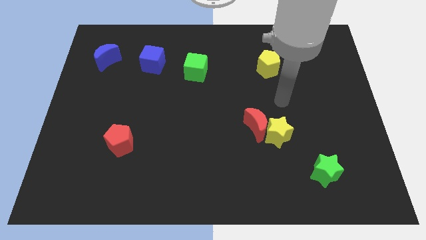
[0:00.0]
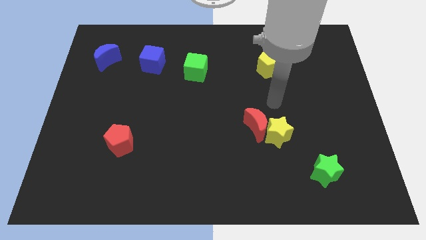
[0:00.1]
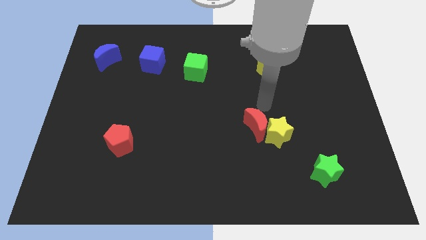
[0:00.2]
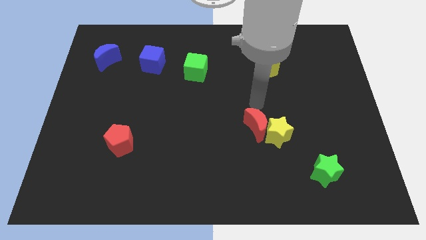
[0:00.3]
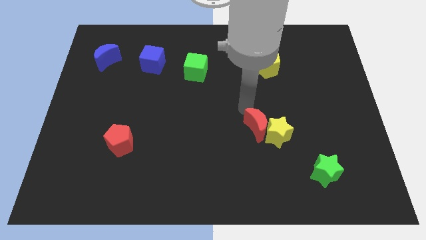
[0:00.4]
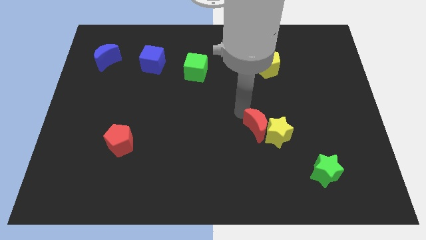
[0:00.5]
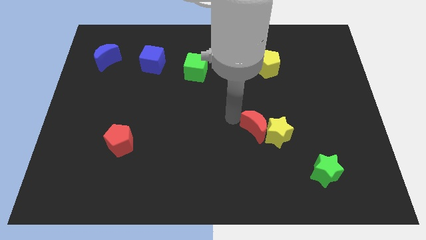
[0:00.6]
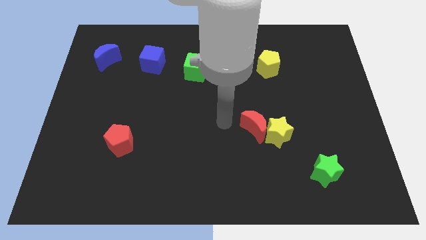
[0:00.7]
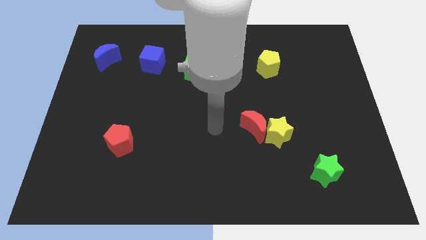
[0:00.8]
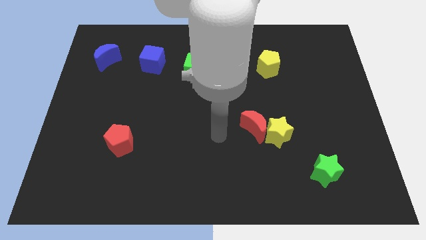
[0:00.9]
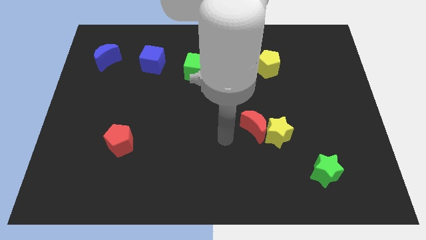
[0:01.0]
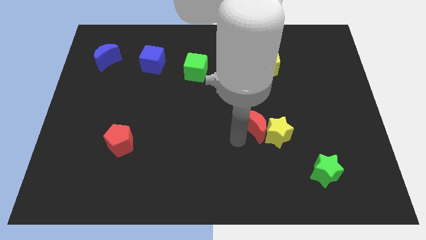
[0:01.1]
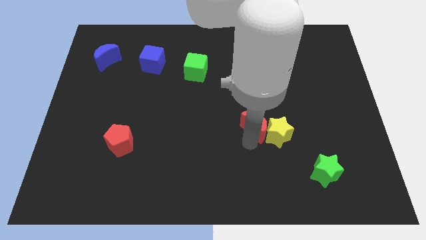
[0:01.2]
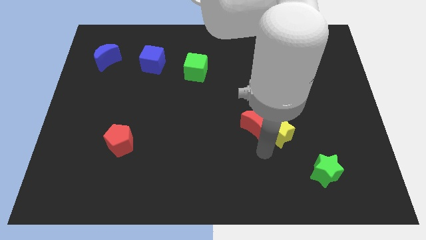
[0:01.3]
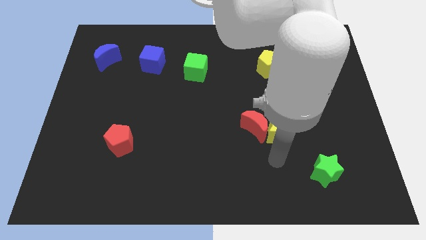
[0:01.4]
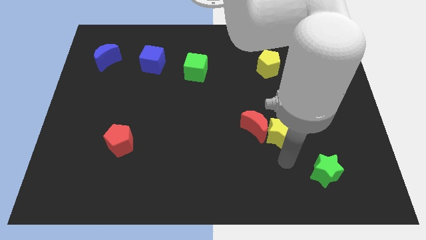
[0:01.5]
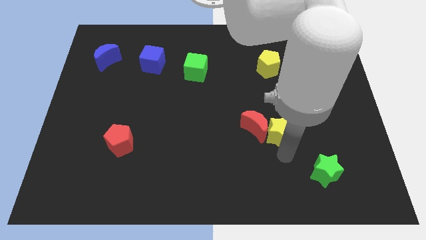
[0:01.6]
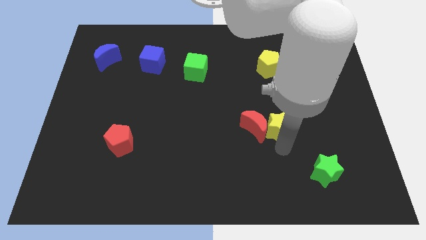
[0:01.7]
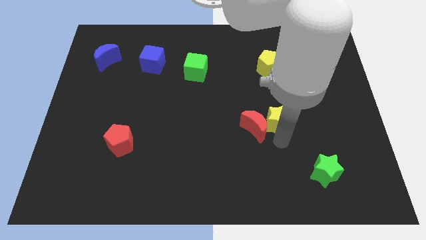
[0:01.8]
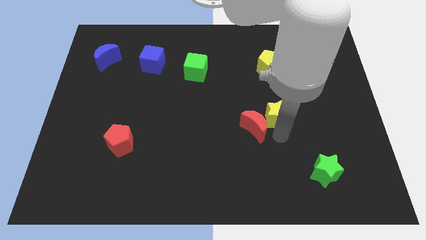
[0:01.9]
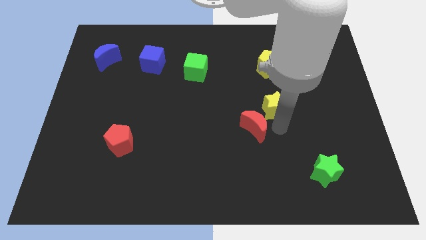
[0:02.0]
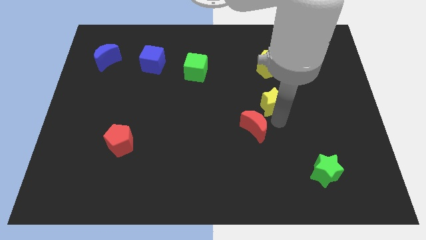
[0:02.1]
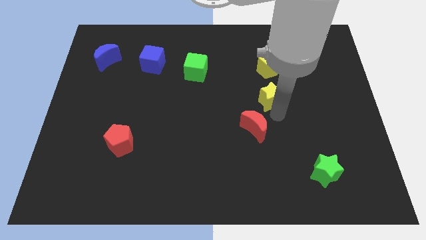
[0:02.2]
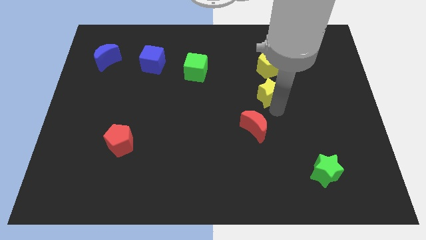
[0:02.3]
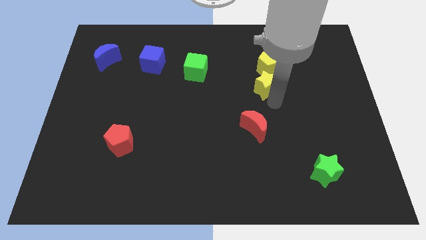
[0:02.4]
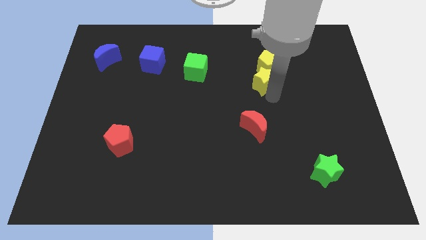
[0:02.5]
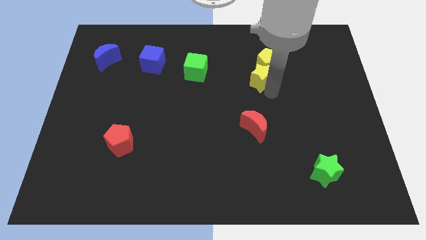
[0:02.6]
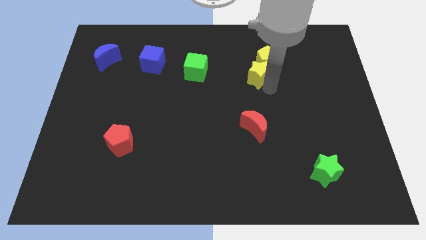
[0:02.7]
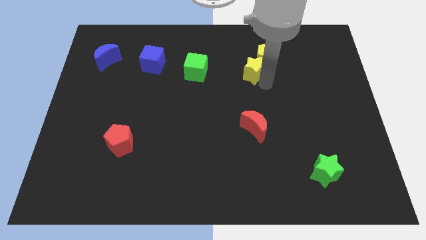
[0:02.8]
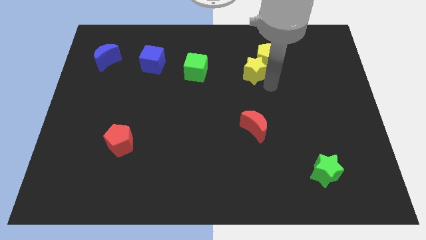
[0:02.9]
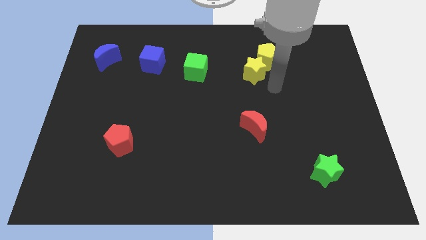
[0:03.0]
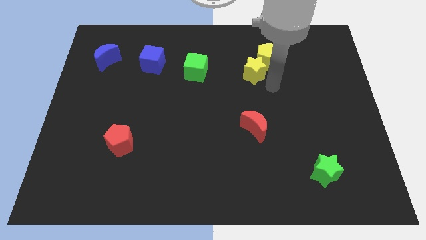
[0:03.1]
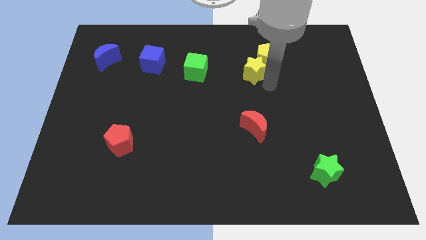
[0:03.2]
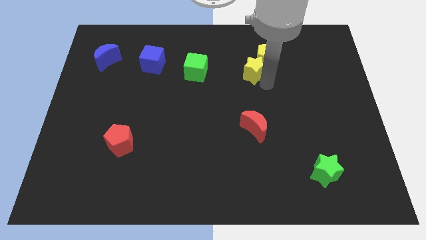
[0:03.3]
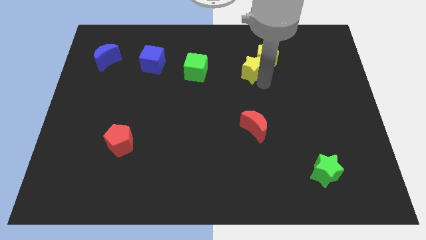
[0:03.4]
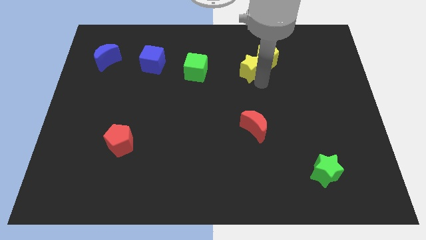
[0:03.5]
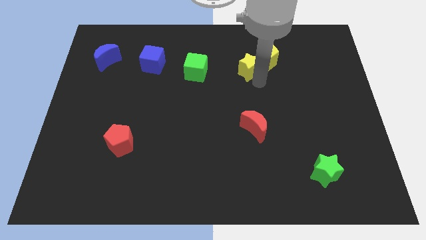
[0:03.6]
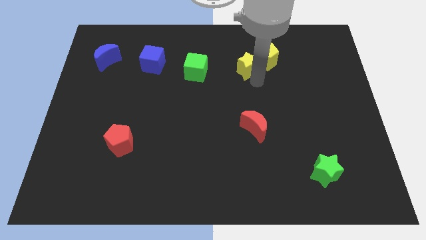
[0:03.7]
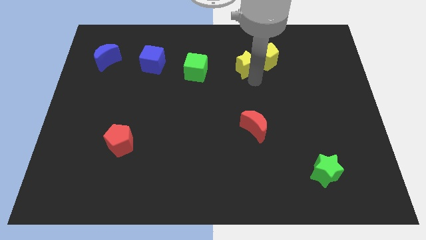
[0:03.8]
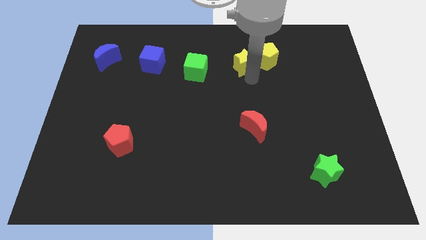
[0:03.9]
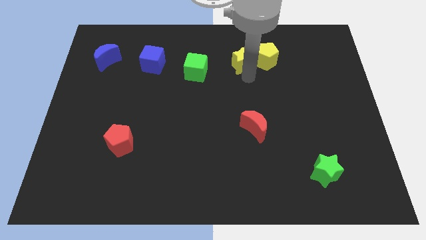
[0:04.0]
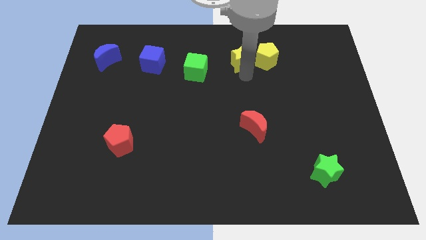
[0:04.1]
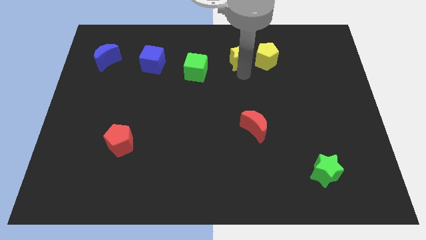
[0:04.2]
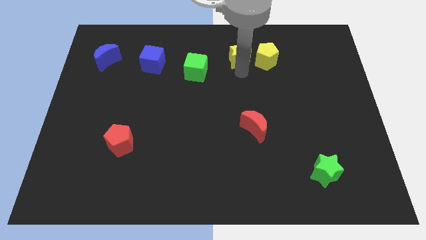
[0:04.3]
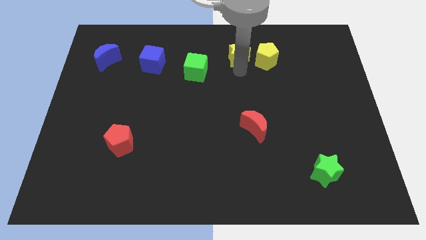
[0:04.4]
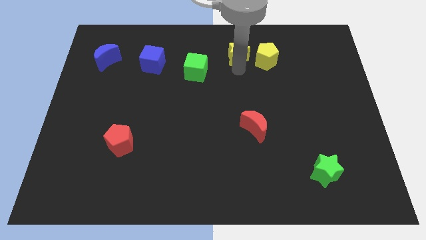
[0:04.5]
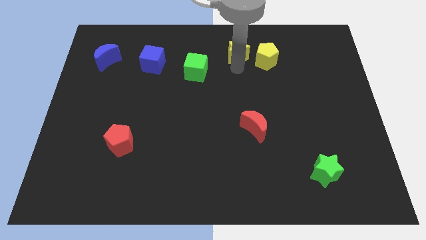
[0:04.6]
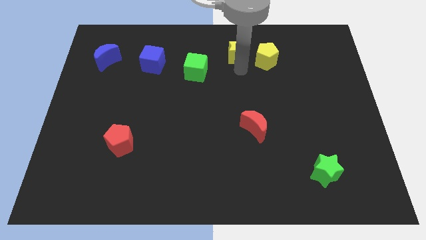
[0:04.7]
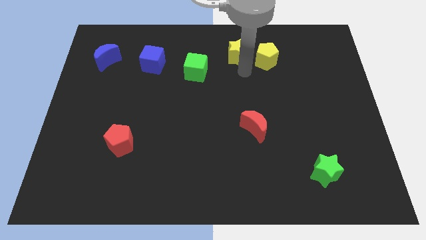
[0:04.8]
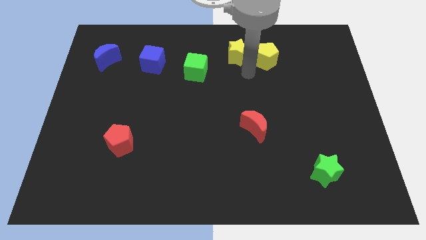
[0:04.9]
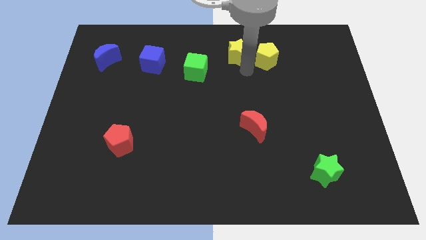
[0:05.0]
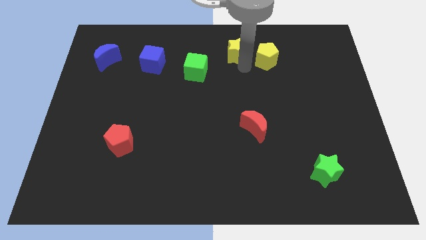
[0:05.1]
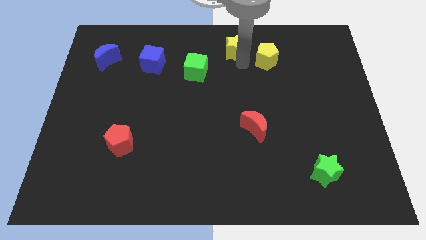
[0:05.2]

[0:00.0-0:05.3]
put the yellow star to the top side

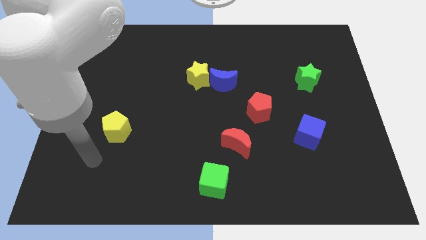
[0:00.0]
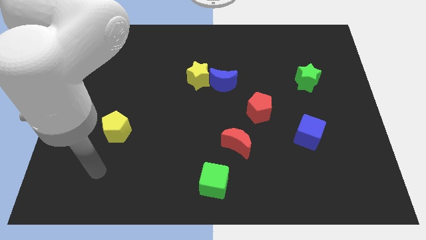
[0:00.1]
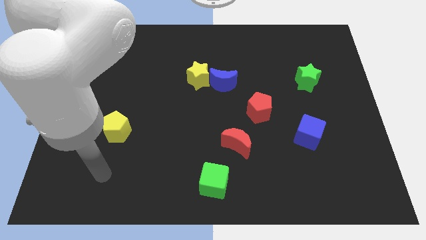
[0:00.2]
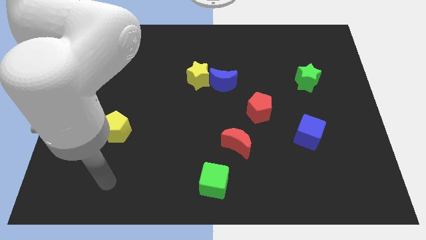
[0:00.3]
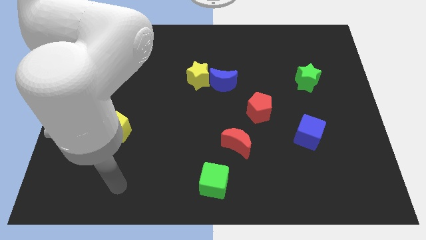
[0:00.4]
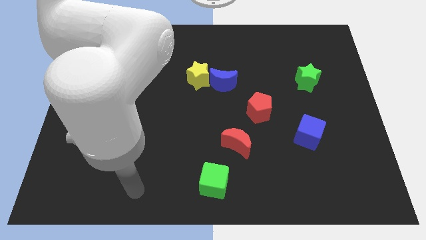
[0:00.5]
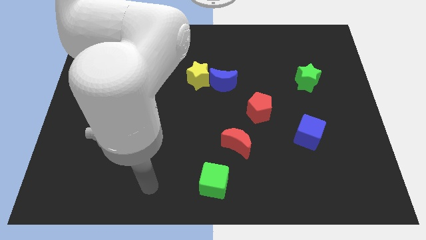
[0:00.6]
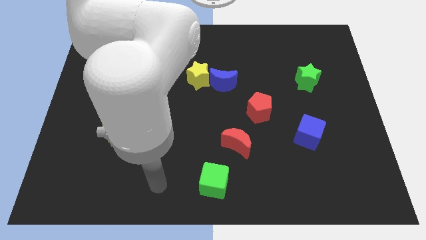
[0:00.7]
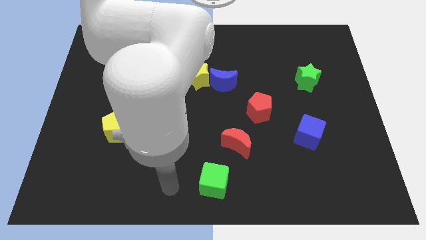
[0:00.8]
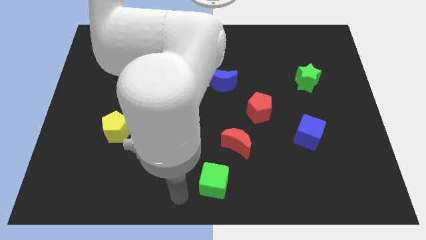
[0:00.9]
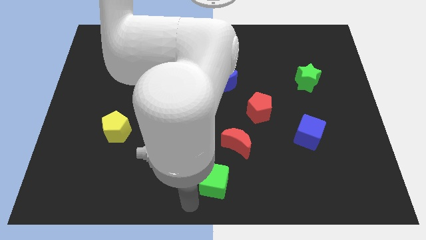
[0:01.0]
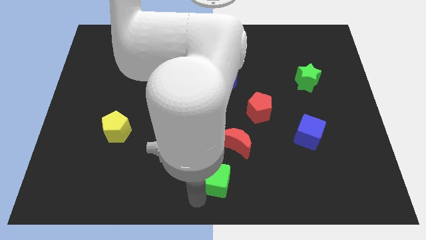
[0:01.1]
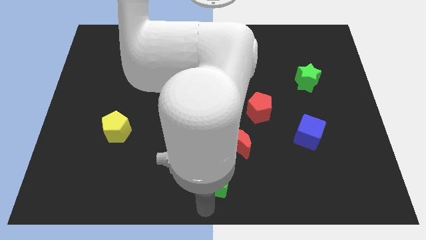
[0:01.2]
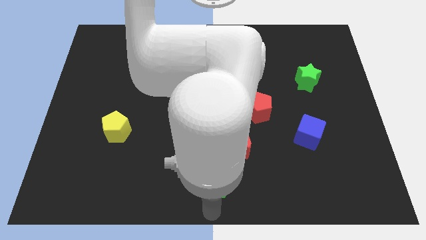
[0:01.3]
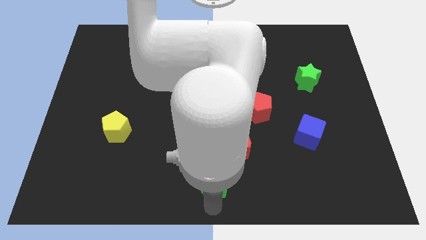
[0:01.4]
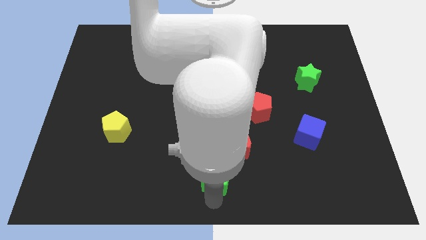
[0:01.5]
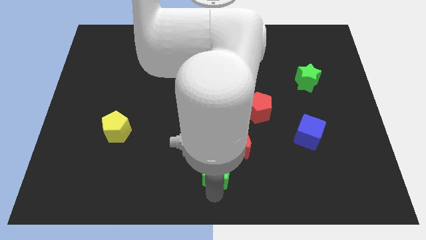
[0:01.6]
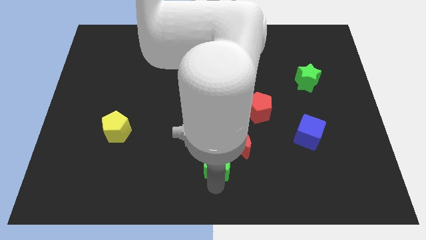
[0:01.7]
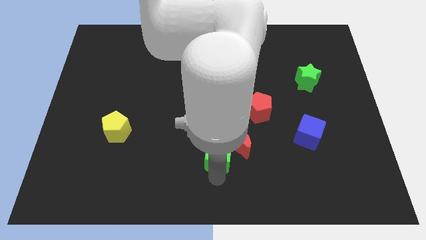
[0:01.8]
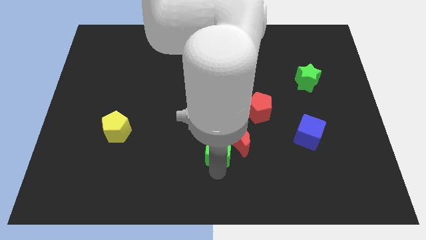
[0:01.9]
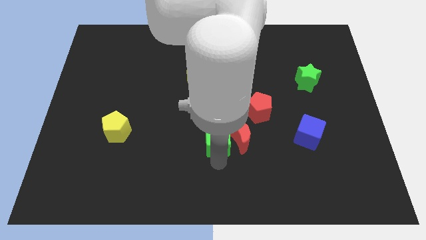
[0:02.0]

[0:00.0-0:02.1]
push the green cube to the center
